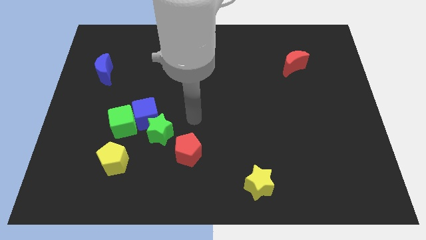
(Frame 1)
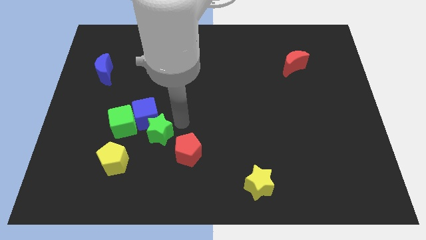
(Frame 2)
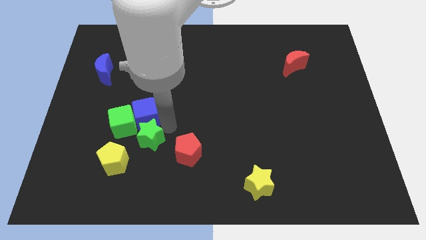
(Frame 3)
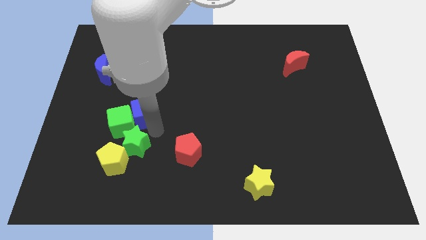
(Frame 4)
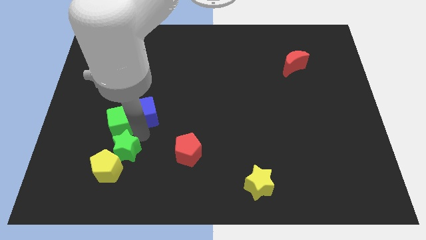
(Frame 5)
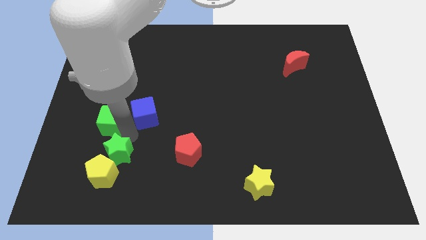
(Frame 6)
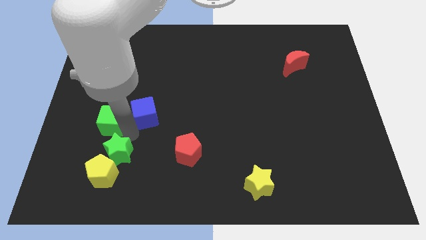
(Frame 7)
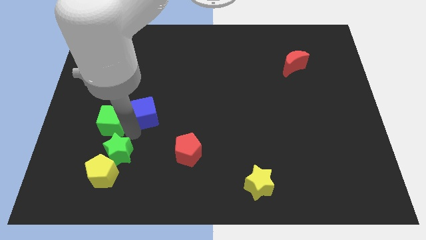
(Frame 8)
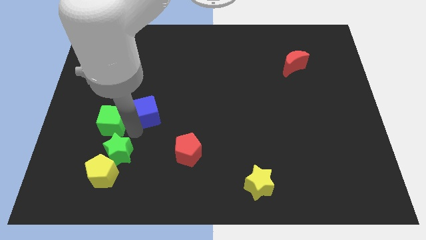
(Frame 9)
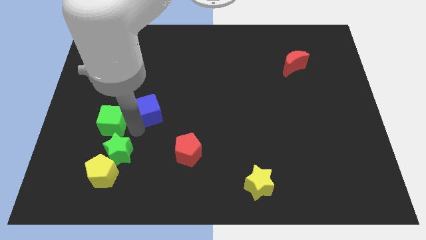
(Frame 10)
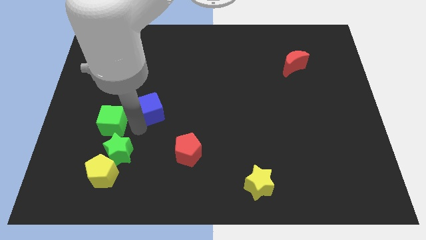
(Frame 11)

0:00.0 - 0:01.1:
separate the blue cube from the green star and green cube

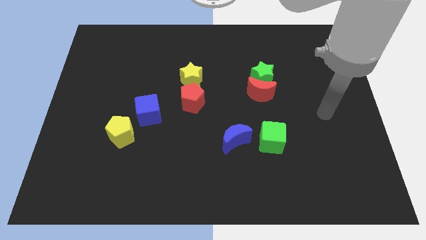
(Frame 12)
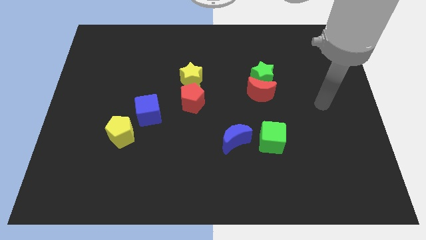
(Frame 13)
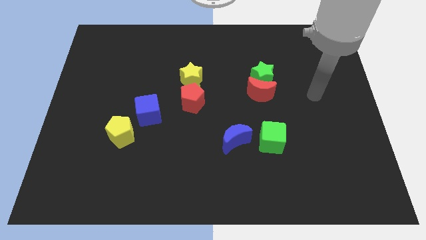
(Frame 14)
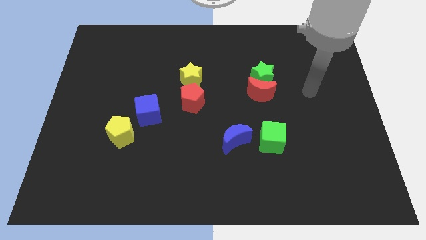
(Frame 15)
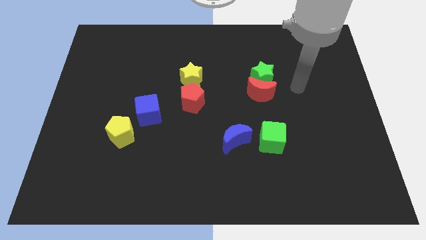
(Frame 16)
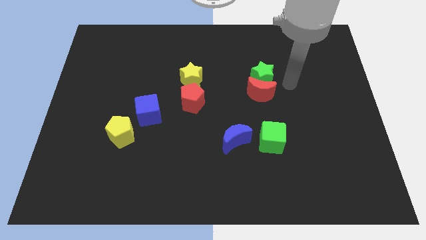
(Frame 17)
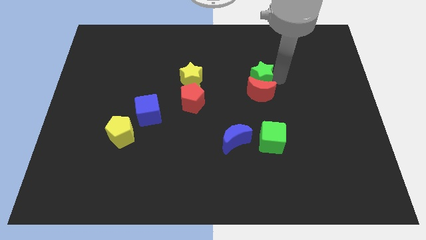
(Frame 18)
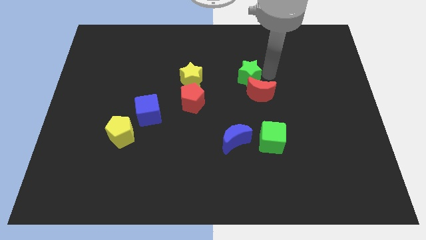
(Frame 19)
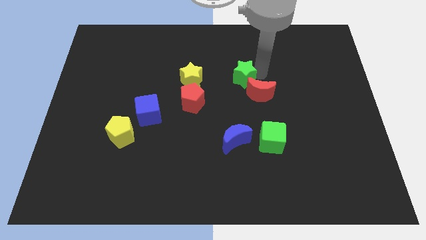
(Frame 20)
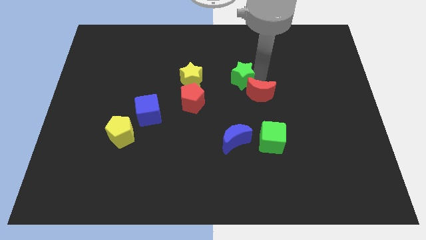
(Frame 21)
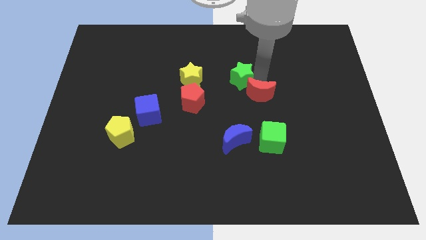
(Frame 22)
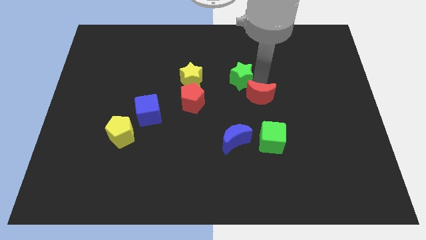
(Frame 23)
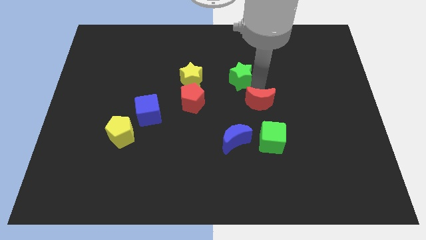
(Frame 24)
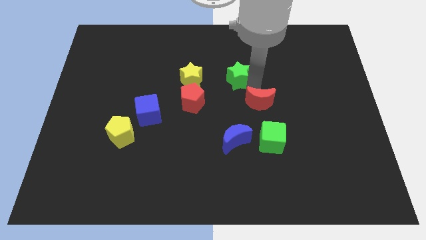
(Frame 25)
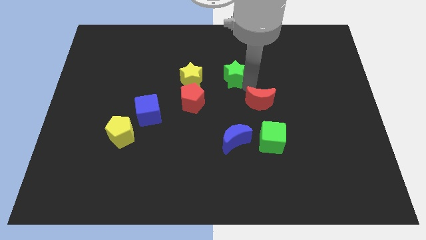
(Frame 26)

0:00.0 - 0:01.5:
pull the red moon apart from the green star

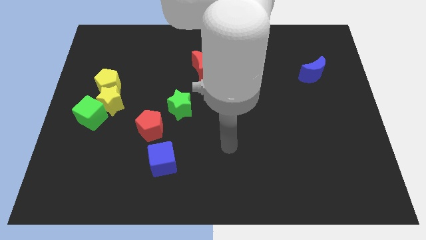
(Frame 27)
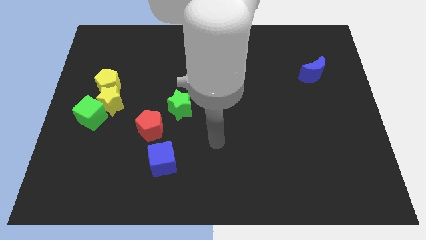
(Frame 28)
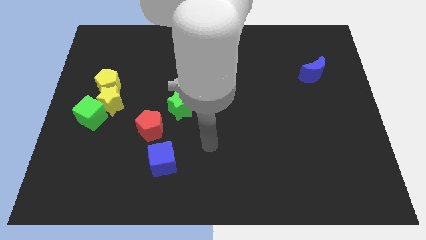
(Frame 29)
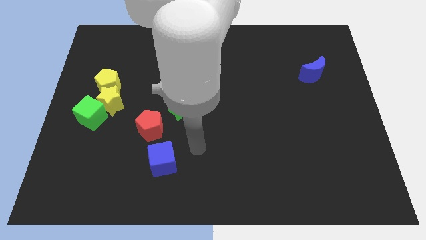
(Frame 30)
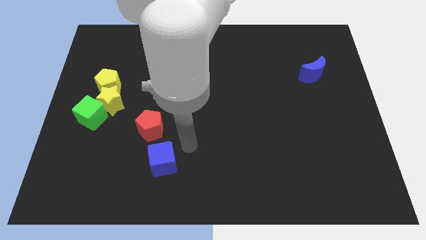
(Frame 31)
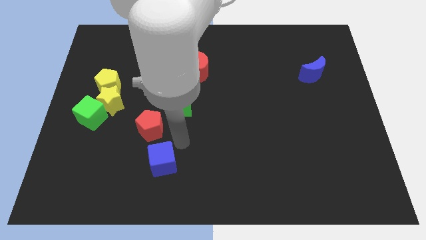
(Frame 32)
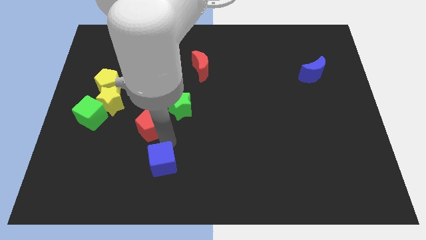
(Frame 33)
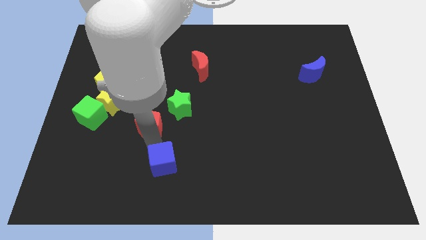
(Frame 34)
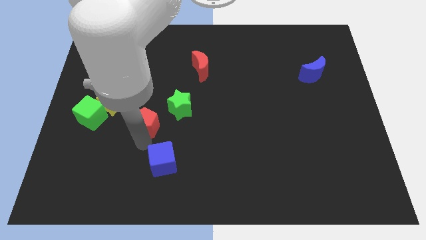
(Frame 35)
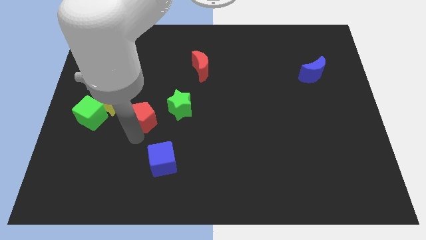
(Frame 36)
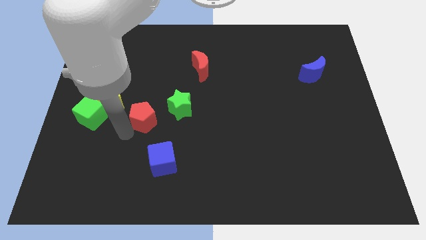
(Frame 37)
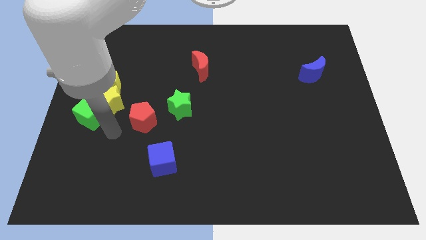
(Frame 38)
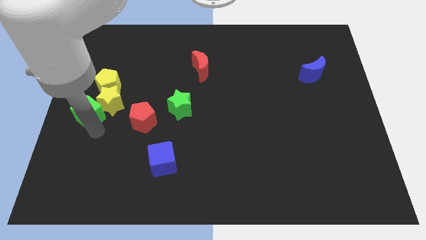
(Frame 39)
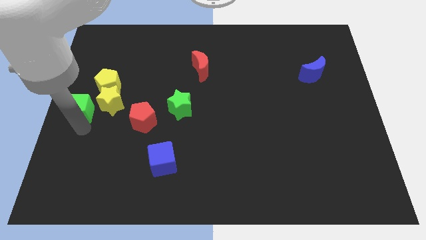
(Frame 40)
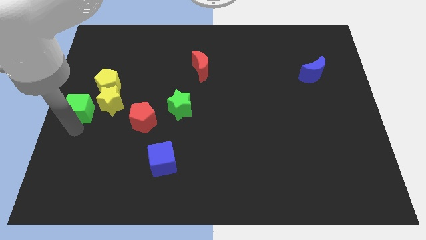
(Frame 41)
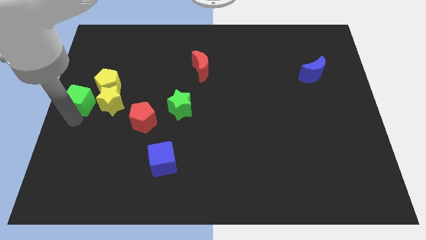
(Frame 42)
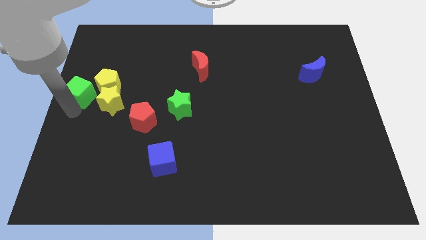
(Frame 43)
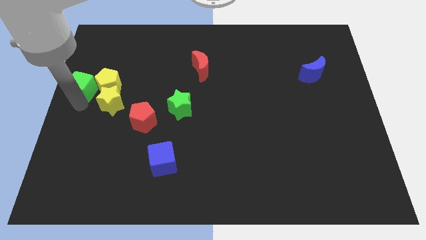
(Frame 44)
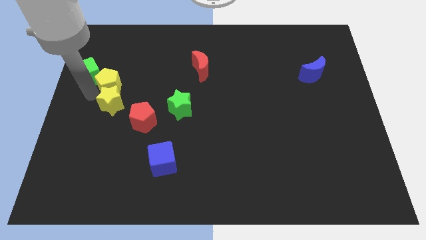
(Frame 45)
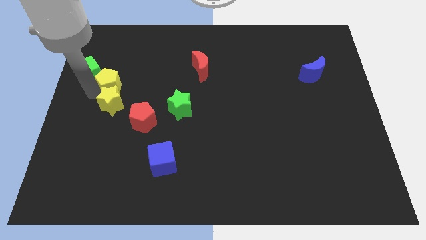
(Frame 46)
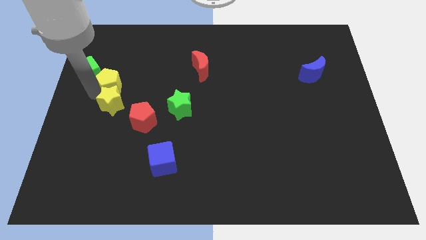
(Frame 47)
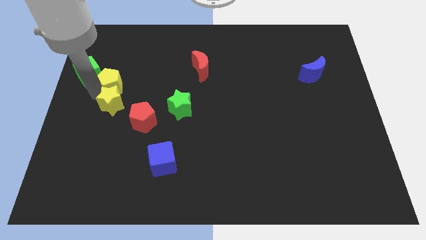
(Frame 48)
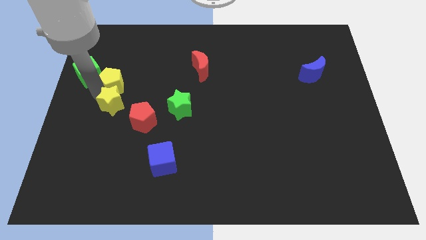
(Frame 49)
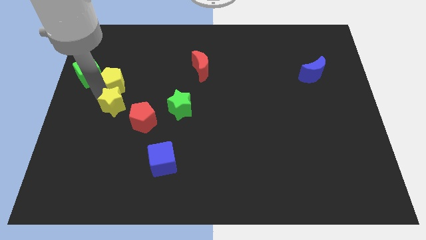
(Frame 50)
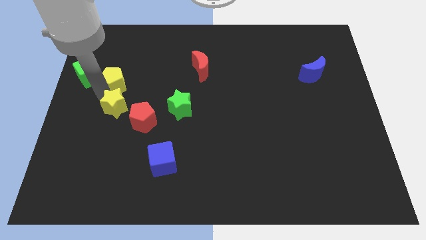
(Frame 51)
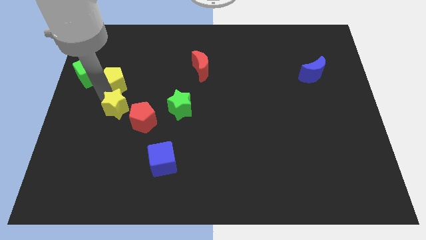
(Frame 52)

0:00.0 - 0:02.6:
pull the yellow star apart from the green cube and yellow pentagon

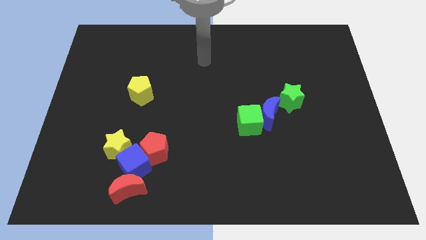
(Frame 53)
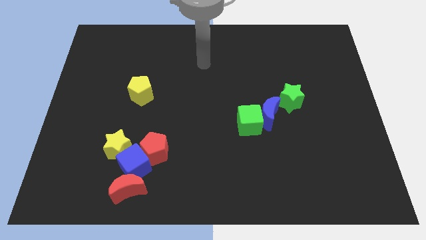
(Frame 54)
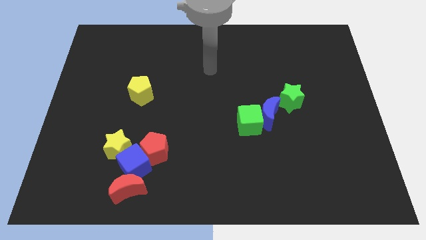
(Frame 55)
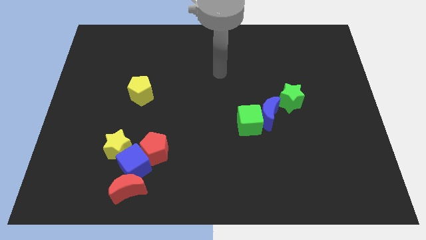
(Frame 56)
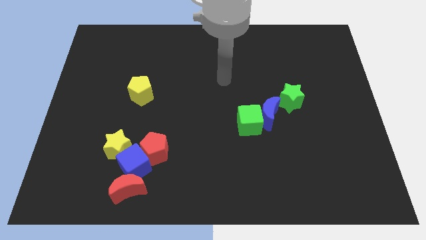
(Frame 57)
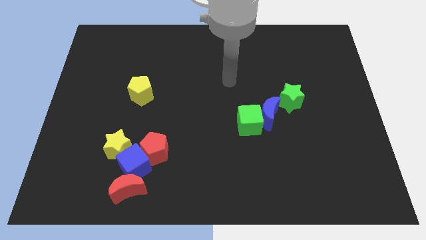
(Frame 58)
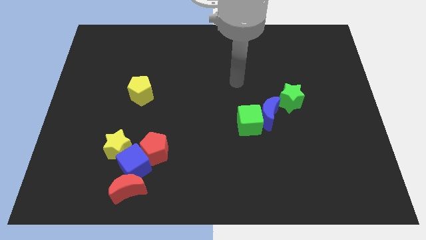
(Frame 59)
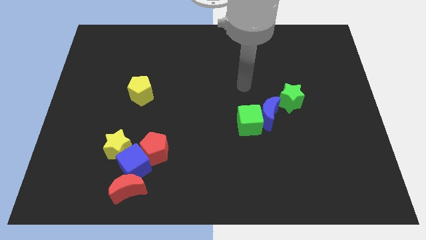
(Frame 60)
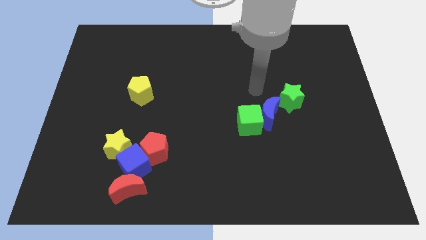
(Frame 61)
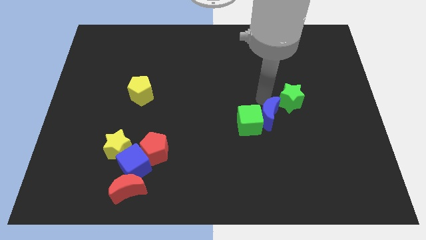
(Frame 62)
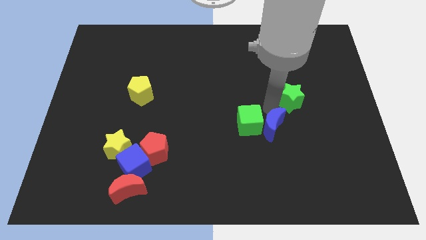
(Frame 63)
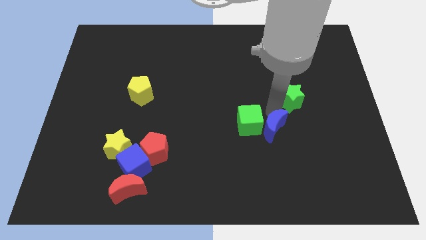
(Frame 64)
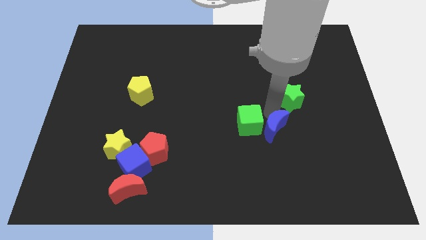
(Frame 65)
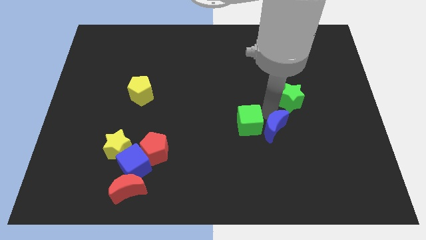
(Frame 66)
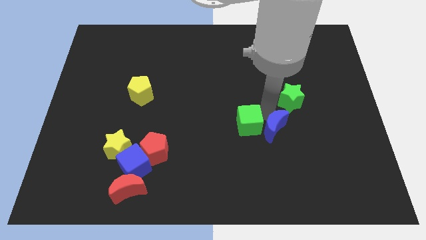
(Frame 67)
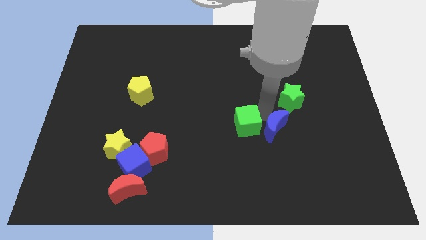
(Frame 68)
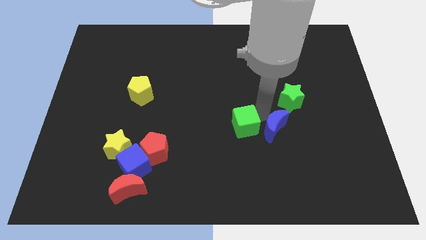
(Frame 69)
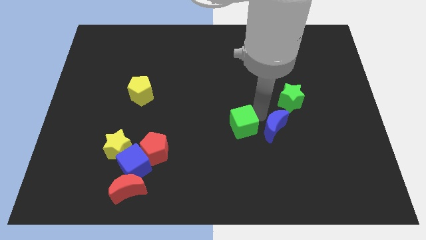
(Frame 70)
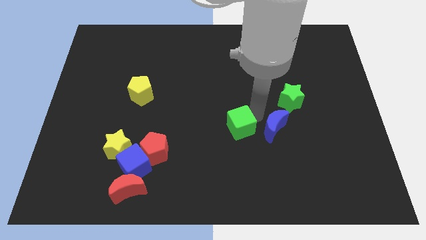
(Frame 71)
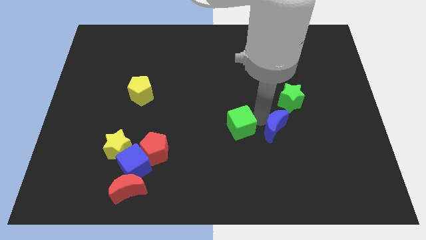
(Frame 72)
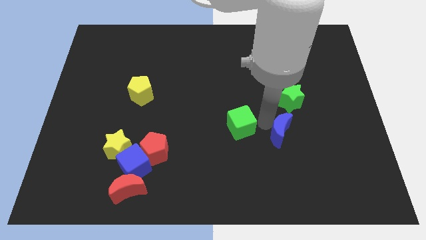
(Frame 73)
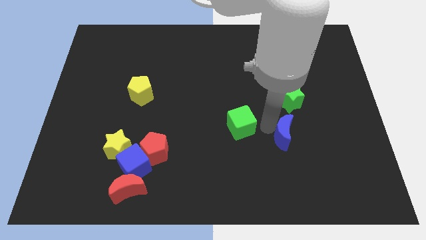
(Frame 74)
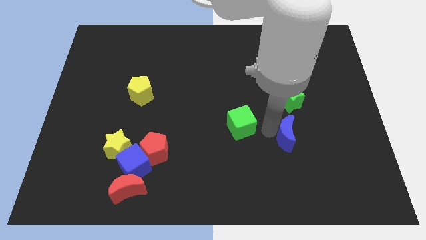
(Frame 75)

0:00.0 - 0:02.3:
separate the green cube from the blue moon

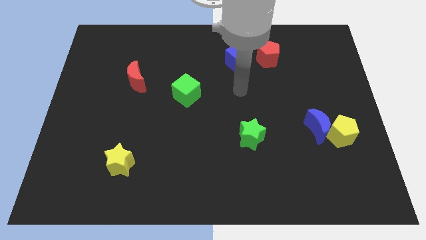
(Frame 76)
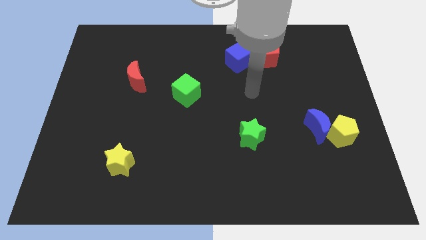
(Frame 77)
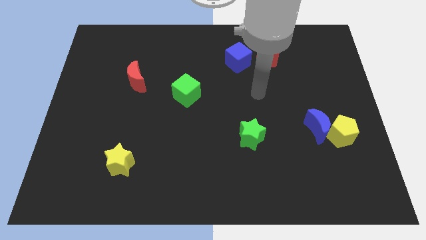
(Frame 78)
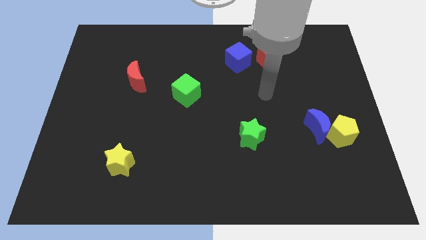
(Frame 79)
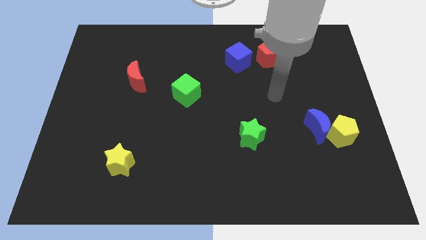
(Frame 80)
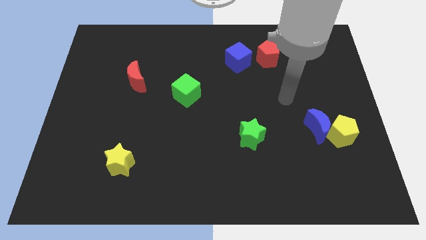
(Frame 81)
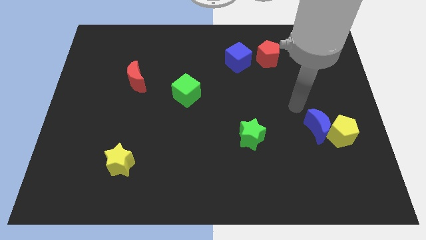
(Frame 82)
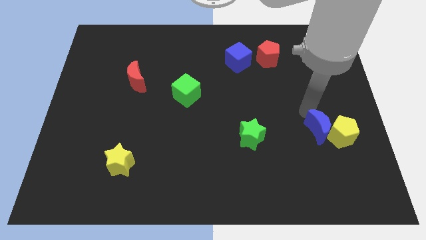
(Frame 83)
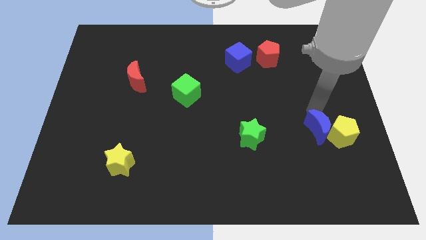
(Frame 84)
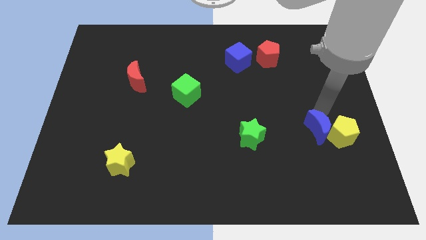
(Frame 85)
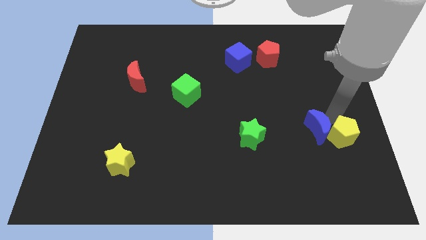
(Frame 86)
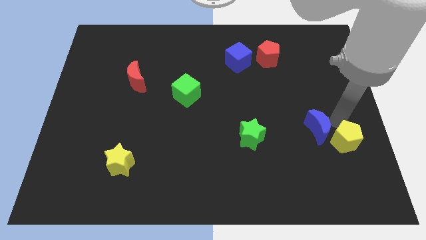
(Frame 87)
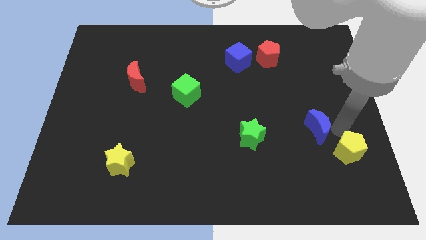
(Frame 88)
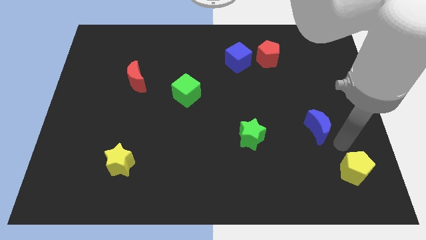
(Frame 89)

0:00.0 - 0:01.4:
pull the blue moon apart from the yellow pentagon

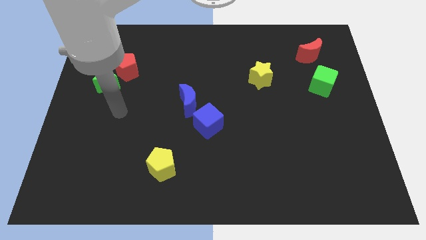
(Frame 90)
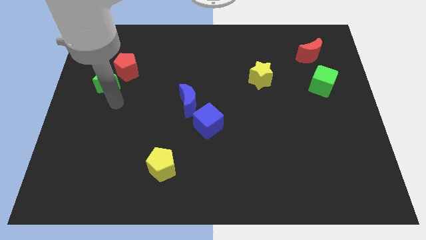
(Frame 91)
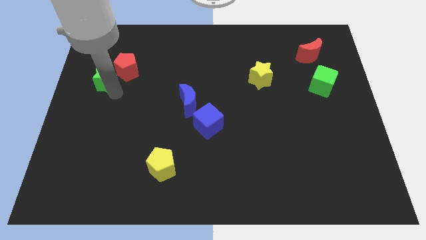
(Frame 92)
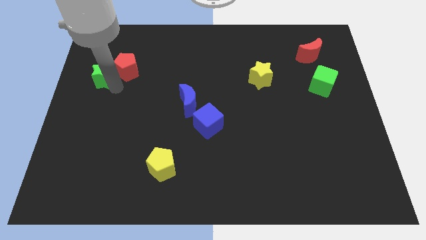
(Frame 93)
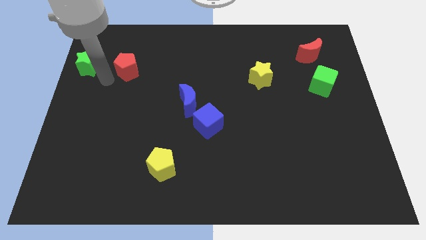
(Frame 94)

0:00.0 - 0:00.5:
pull the red pentagon apart from the green star
